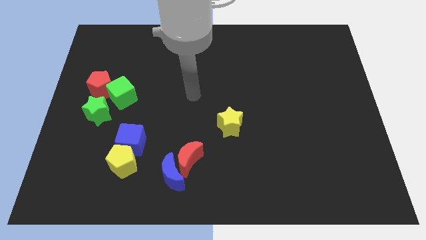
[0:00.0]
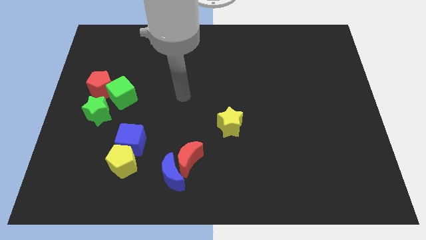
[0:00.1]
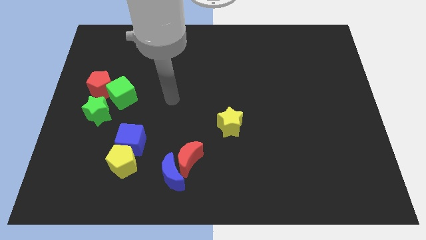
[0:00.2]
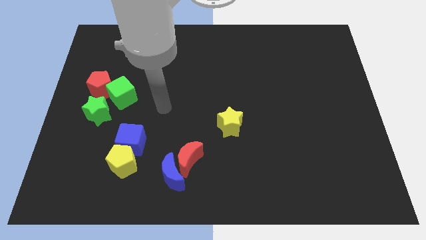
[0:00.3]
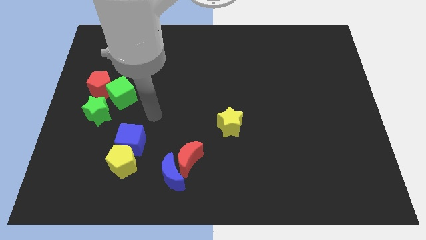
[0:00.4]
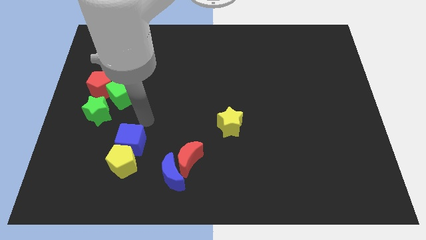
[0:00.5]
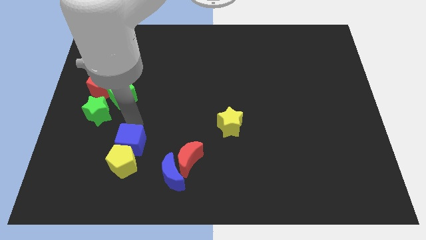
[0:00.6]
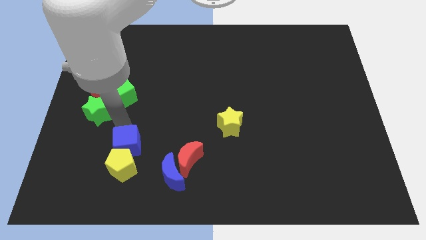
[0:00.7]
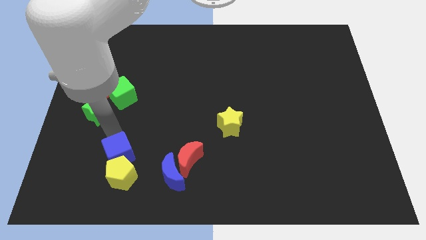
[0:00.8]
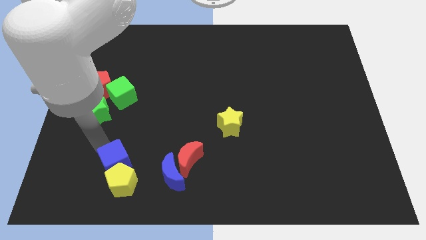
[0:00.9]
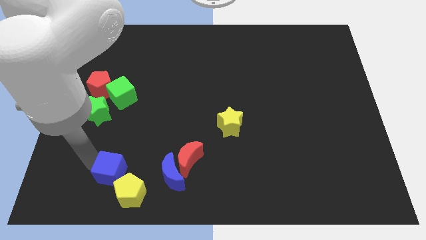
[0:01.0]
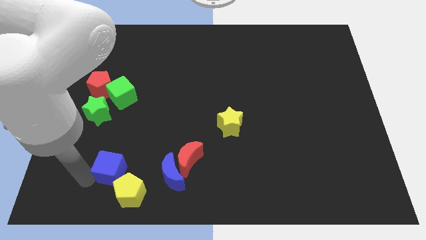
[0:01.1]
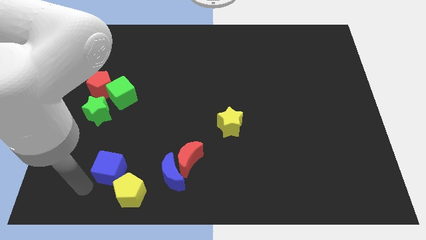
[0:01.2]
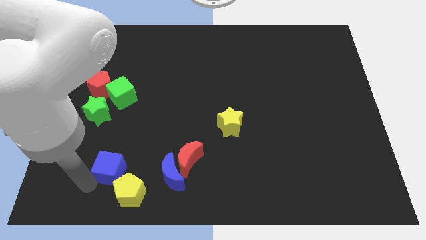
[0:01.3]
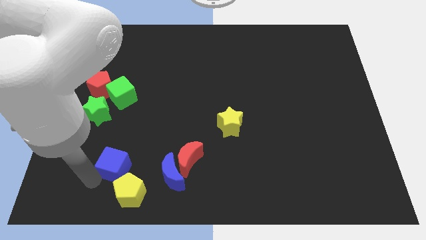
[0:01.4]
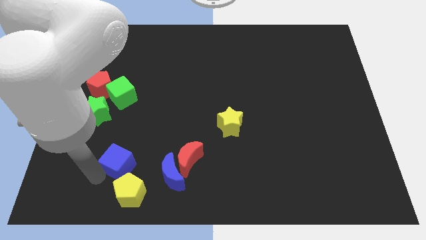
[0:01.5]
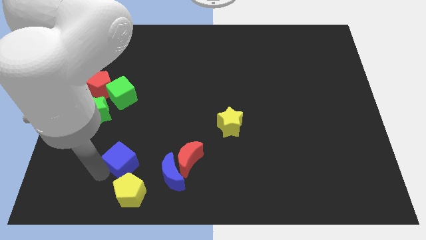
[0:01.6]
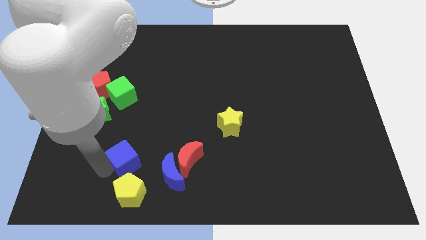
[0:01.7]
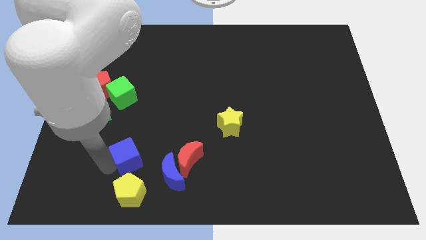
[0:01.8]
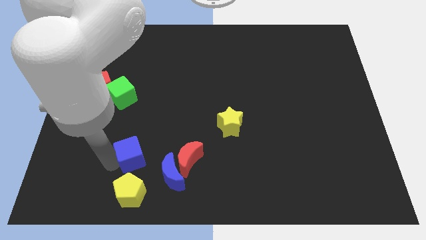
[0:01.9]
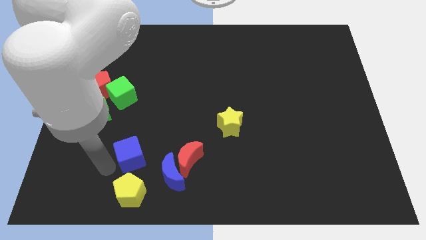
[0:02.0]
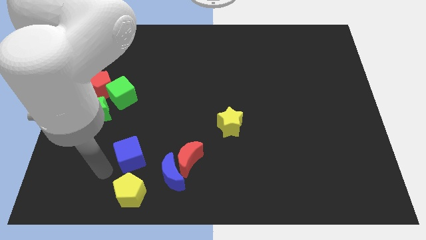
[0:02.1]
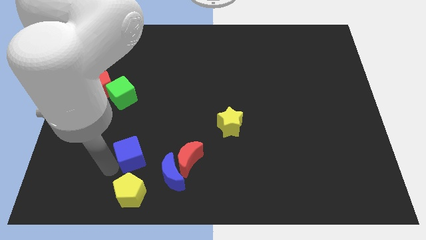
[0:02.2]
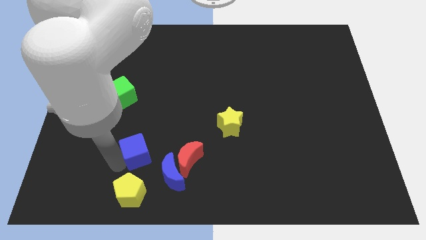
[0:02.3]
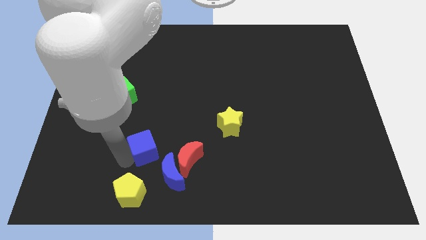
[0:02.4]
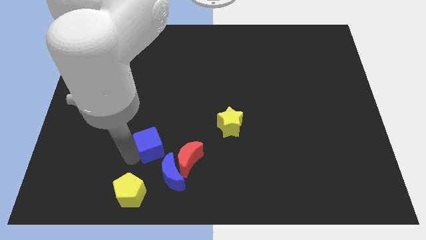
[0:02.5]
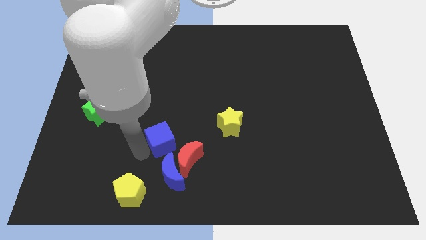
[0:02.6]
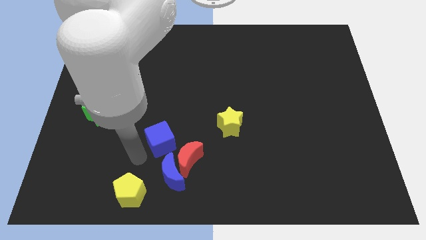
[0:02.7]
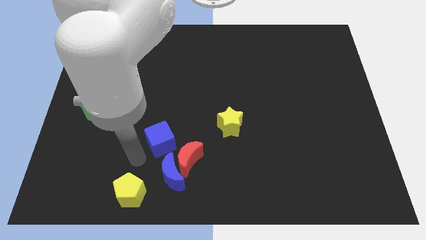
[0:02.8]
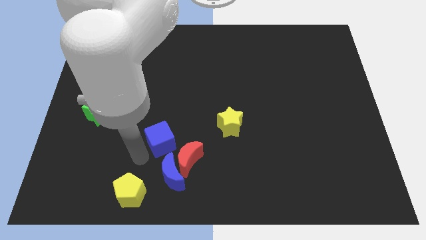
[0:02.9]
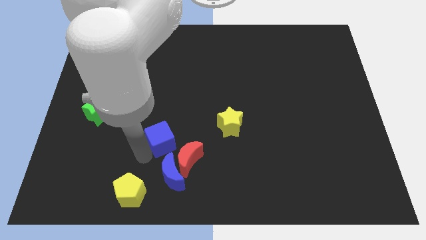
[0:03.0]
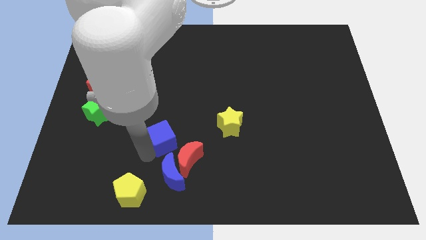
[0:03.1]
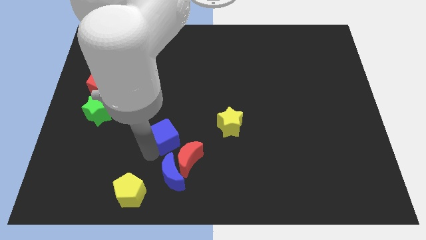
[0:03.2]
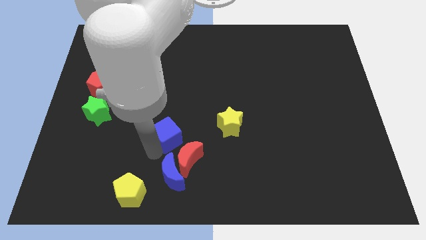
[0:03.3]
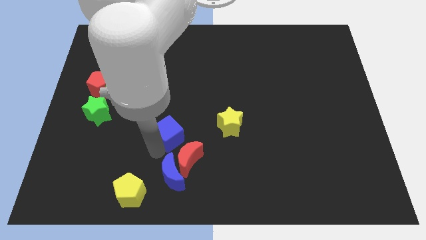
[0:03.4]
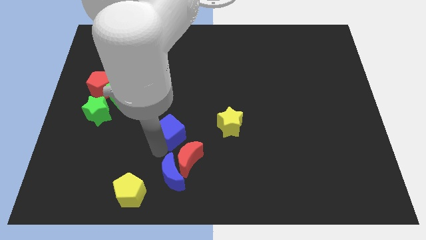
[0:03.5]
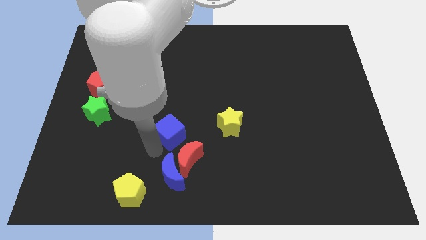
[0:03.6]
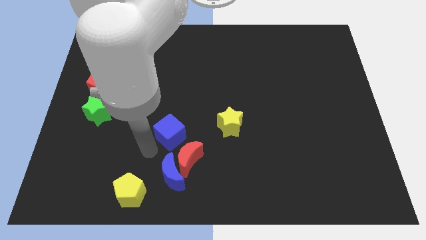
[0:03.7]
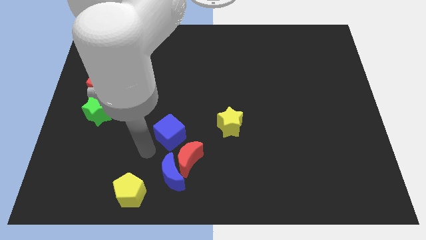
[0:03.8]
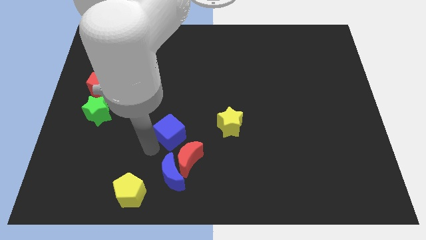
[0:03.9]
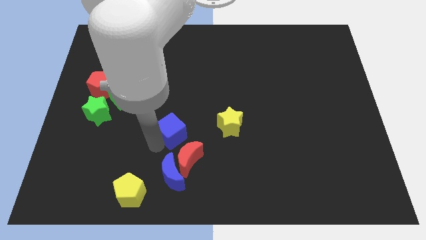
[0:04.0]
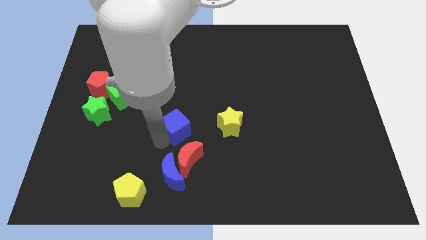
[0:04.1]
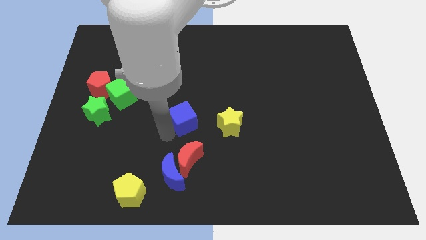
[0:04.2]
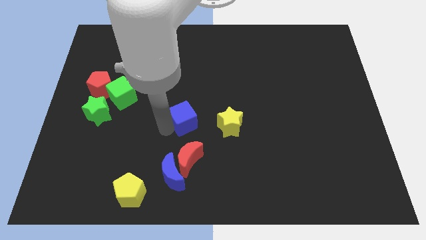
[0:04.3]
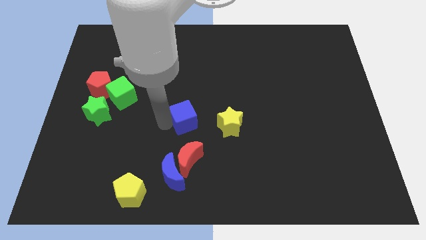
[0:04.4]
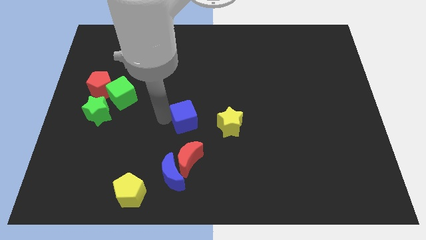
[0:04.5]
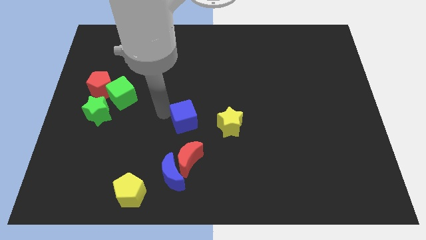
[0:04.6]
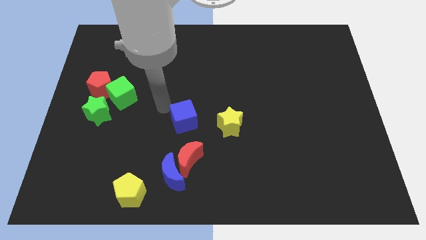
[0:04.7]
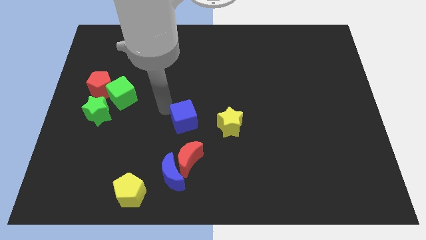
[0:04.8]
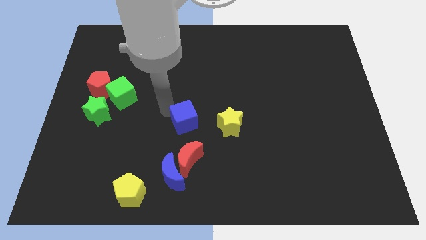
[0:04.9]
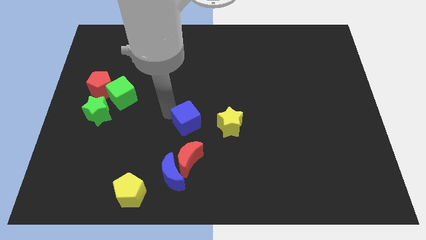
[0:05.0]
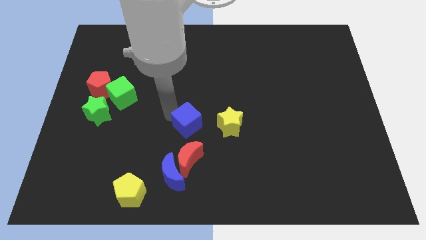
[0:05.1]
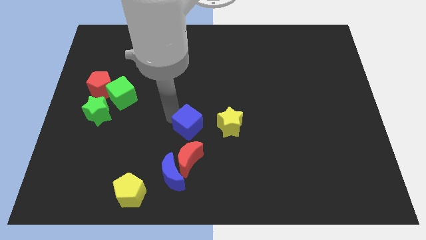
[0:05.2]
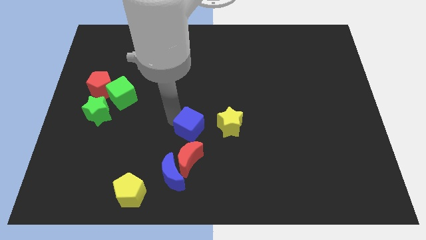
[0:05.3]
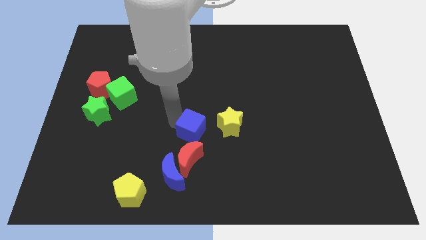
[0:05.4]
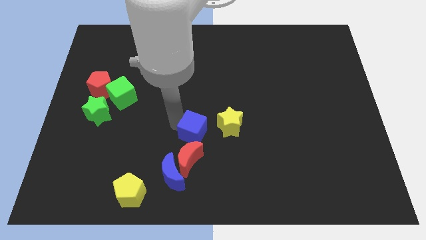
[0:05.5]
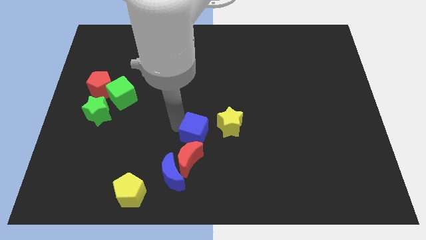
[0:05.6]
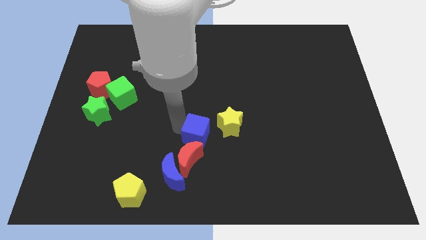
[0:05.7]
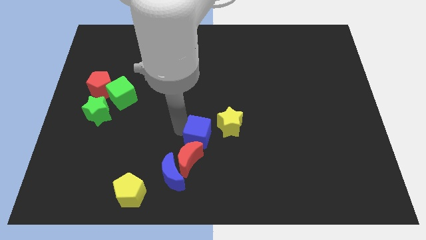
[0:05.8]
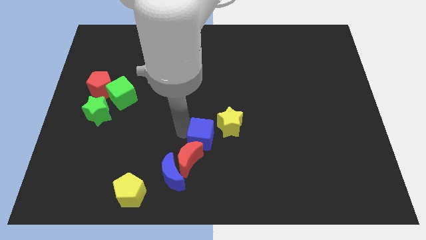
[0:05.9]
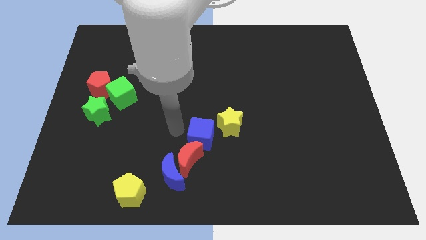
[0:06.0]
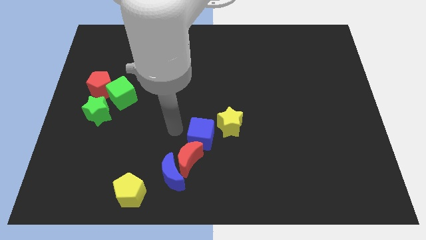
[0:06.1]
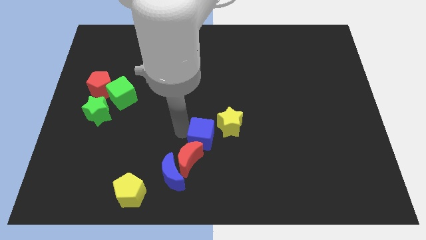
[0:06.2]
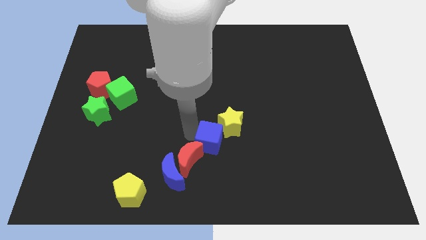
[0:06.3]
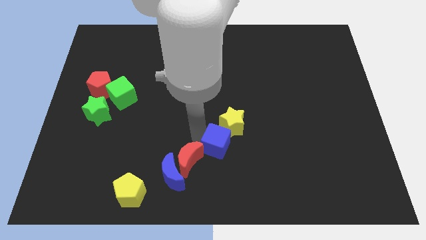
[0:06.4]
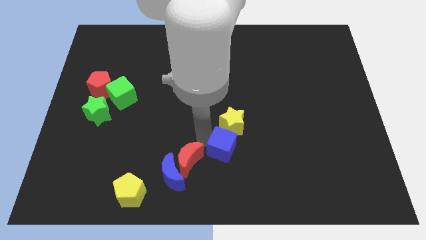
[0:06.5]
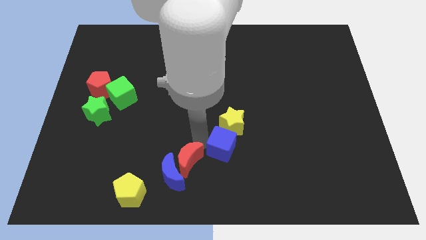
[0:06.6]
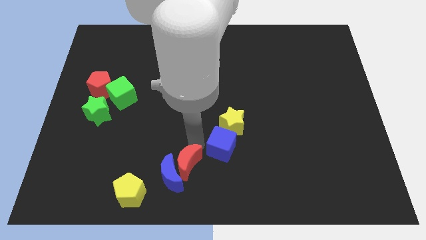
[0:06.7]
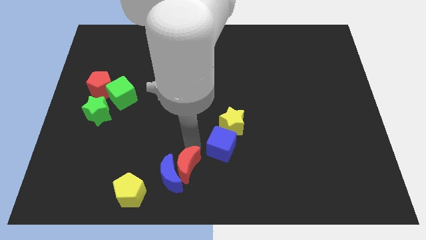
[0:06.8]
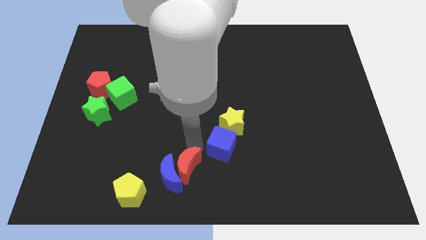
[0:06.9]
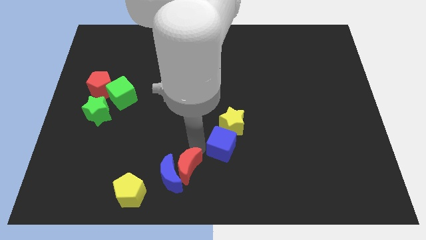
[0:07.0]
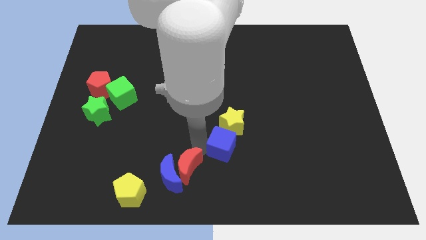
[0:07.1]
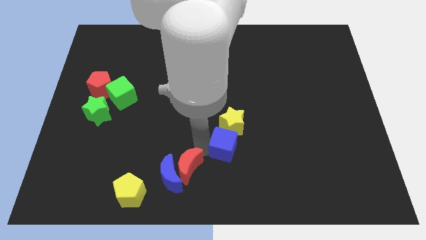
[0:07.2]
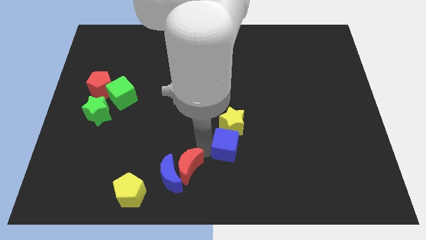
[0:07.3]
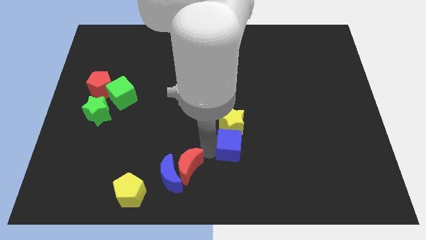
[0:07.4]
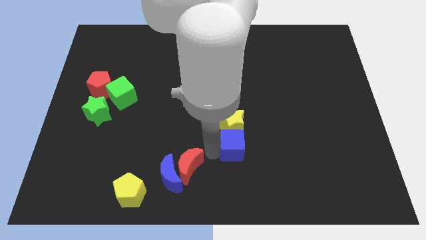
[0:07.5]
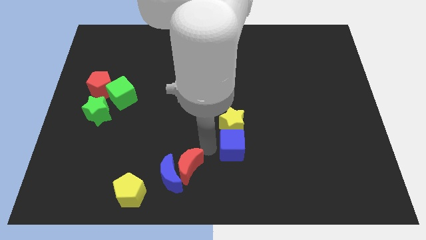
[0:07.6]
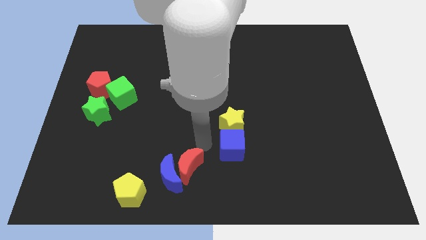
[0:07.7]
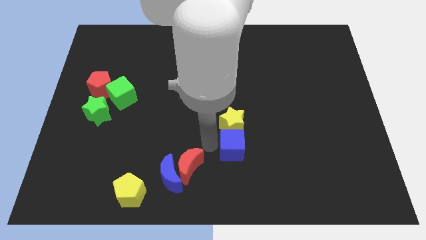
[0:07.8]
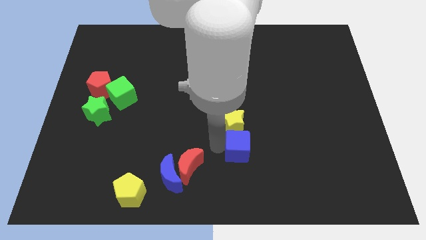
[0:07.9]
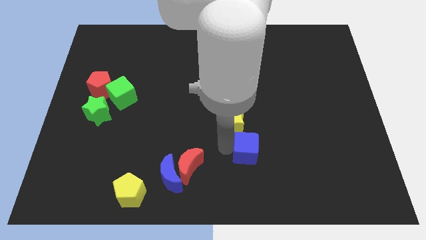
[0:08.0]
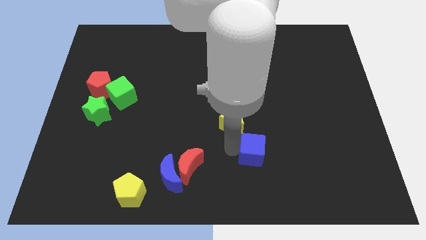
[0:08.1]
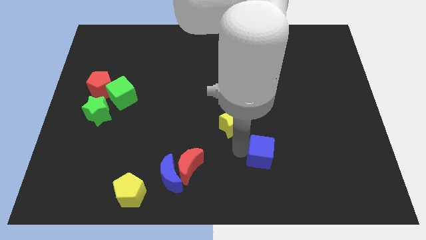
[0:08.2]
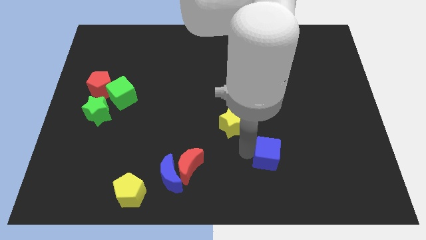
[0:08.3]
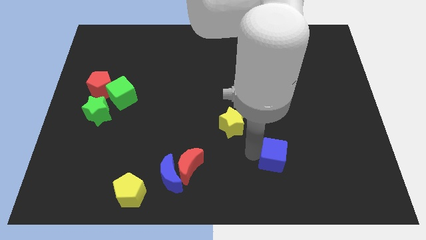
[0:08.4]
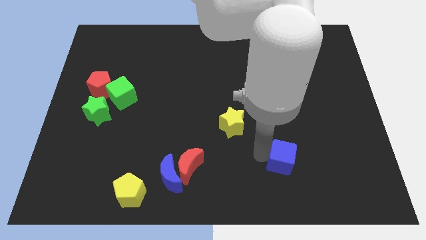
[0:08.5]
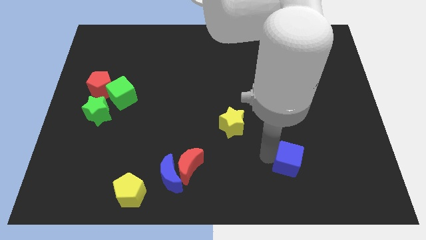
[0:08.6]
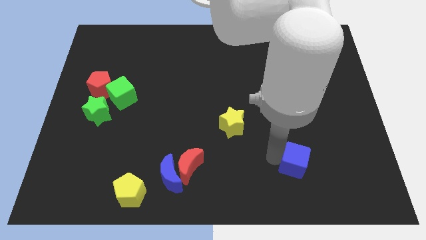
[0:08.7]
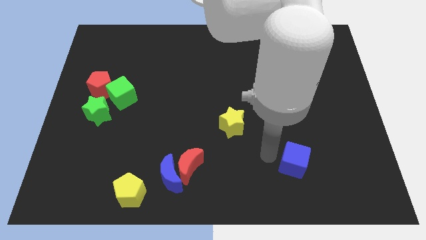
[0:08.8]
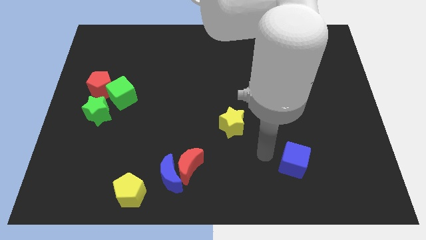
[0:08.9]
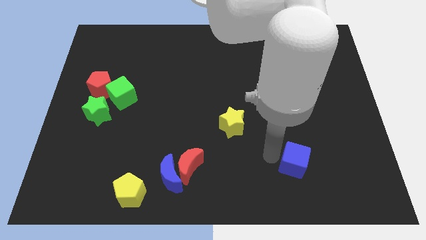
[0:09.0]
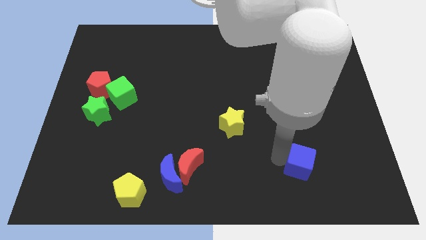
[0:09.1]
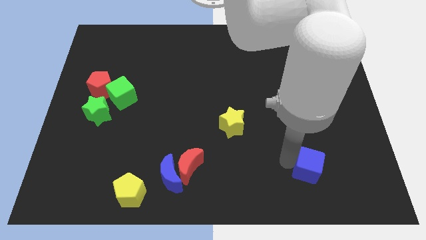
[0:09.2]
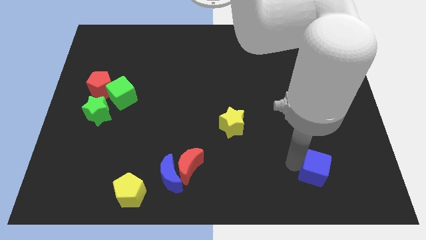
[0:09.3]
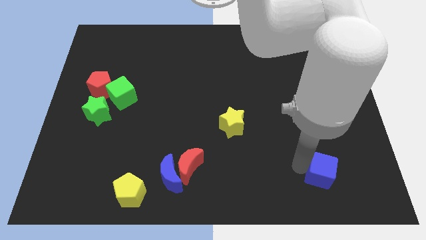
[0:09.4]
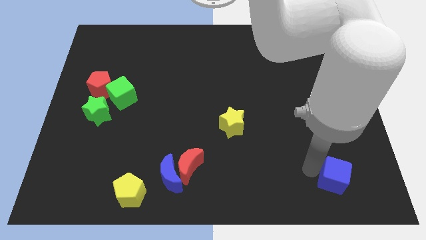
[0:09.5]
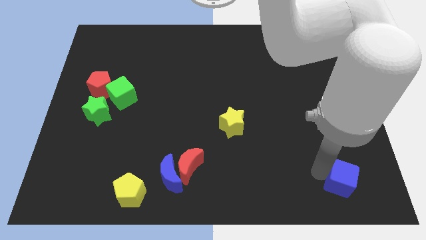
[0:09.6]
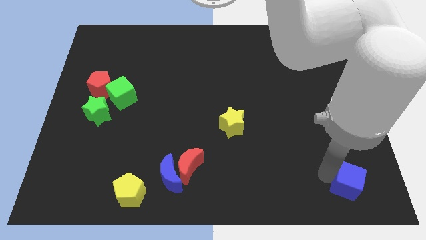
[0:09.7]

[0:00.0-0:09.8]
push the blue cube to the lower right corner
